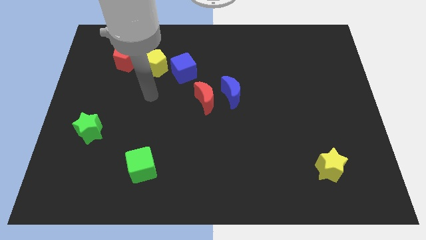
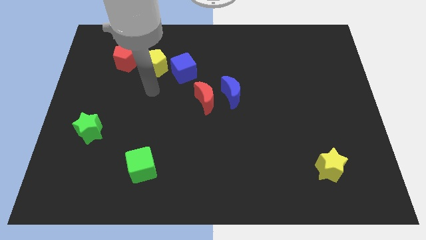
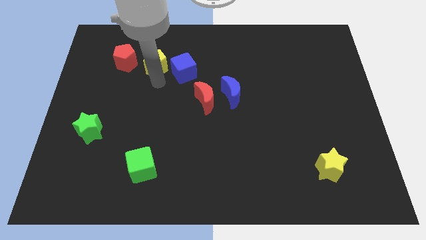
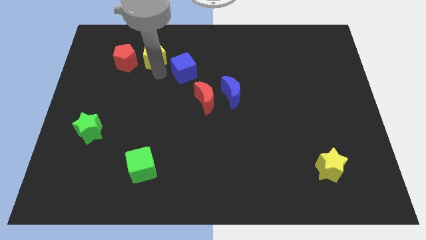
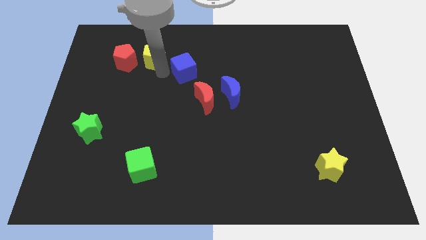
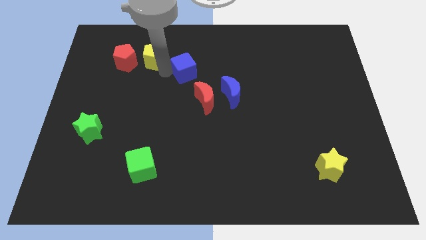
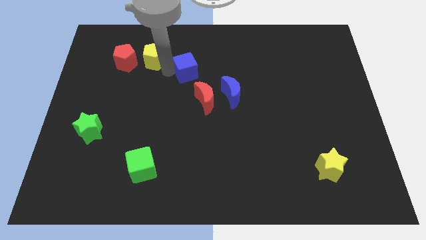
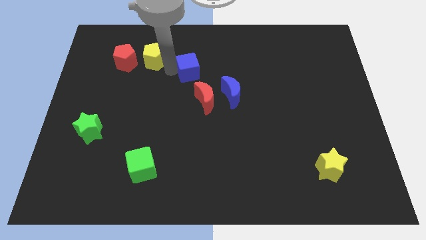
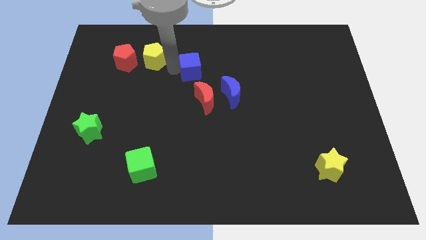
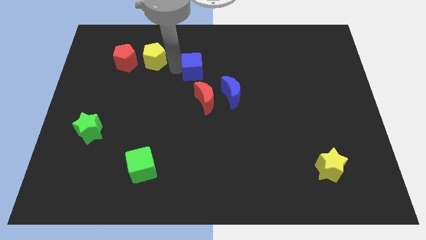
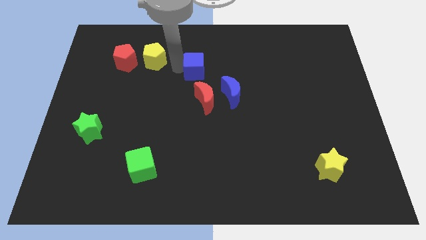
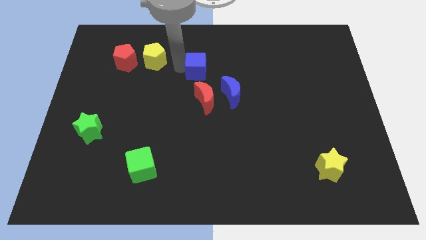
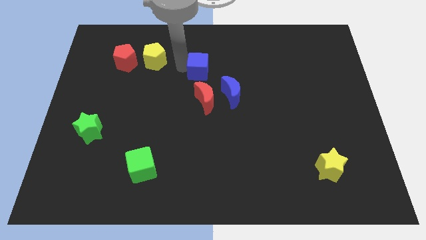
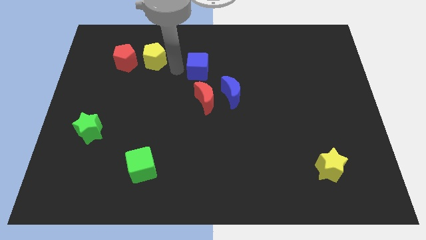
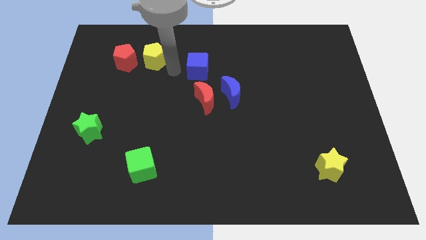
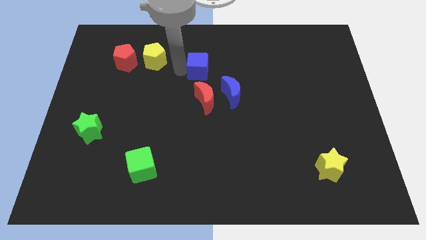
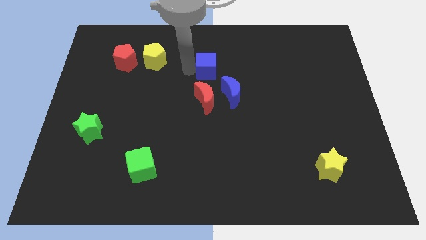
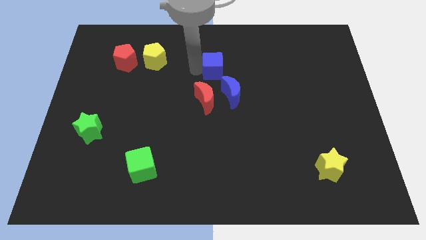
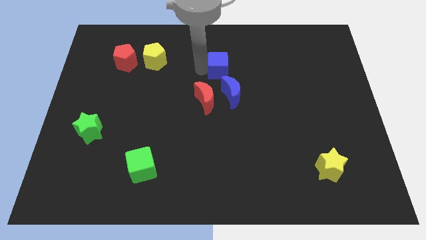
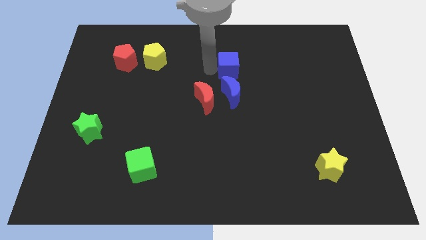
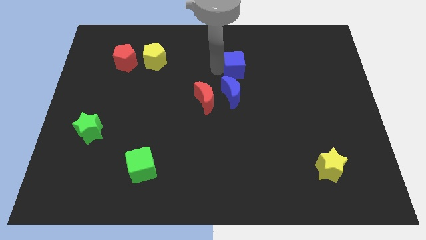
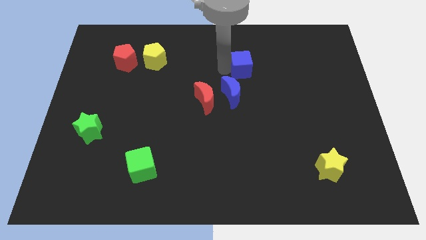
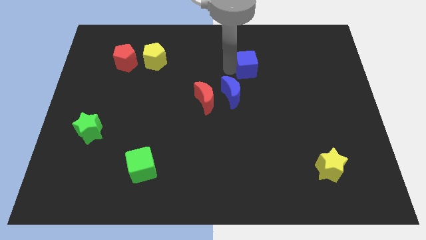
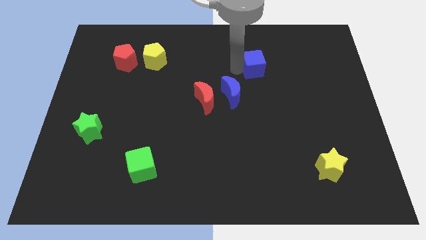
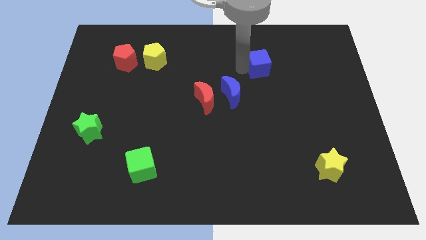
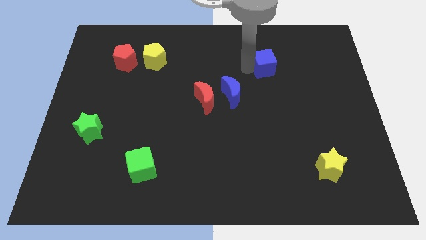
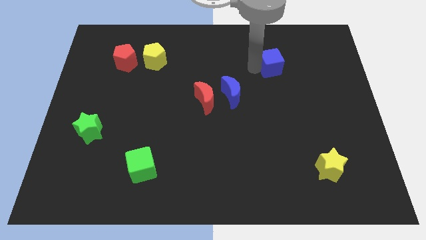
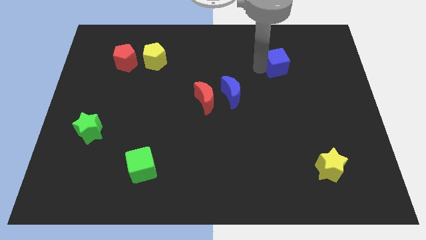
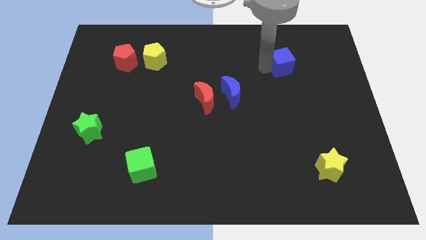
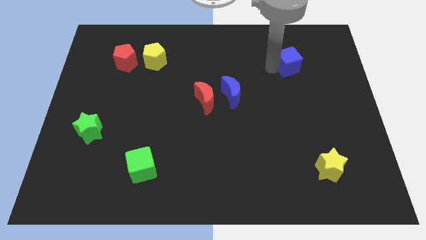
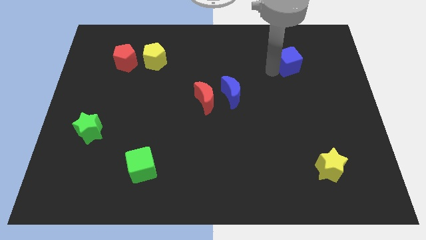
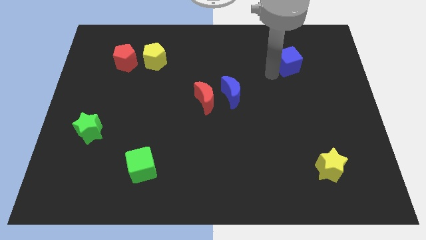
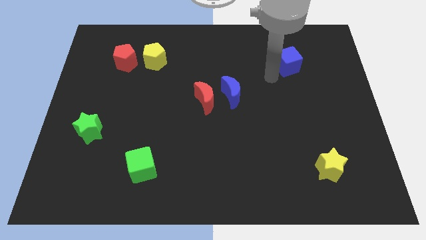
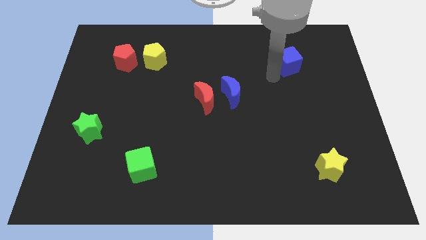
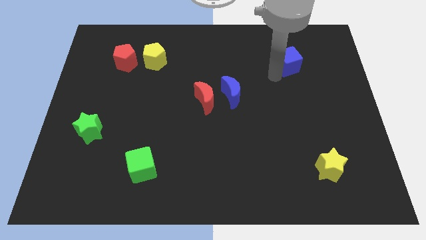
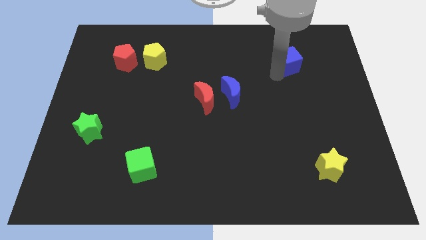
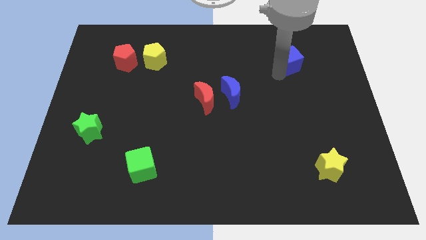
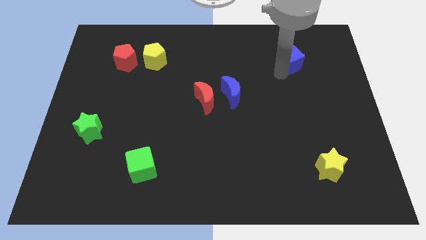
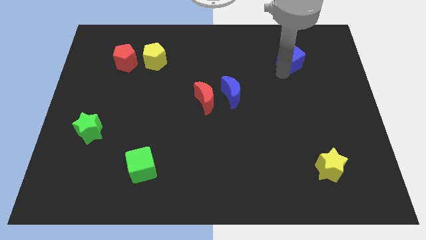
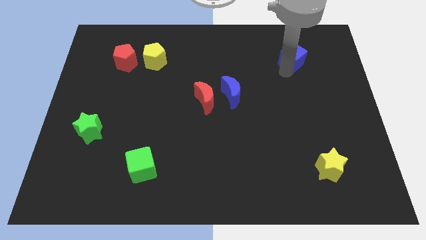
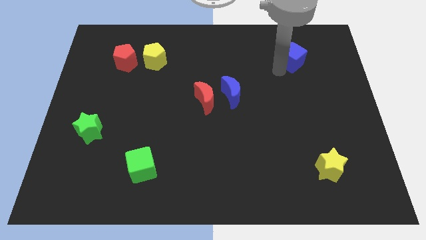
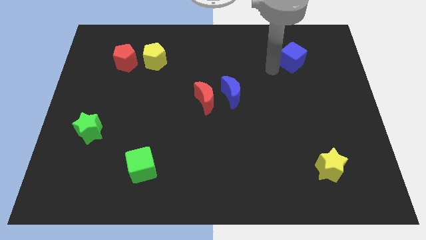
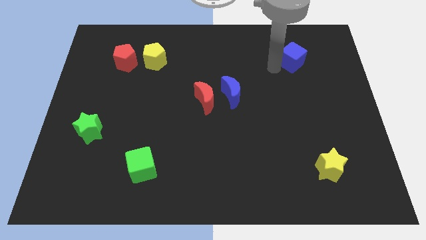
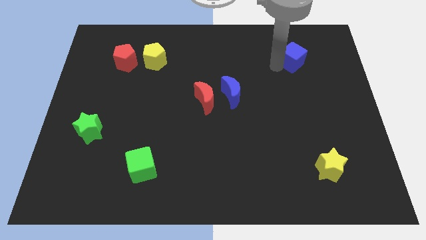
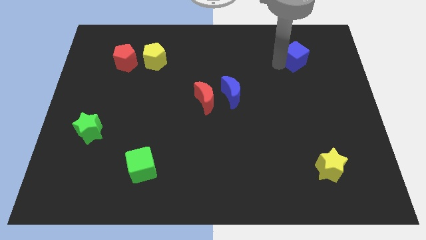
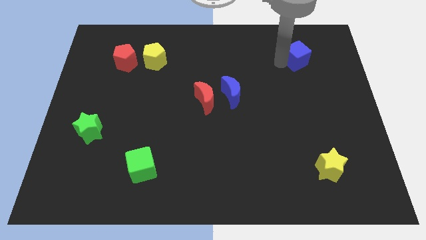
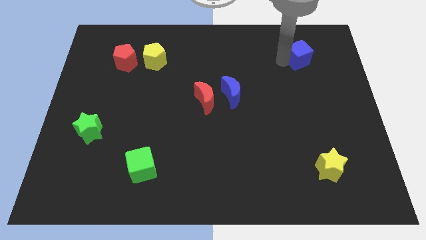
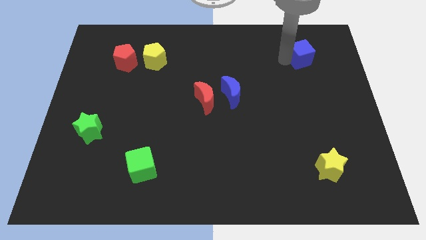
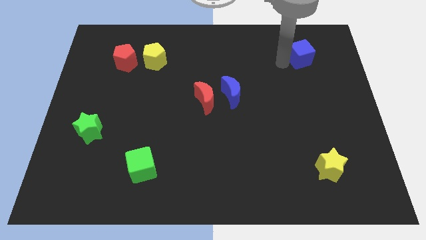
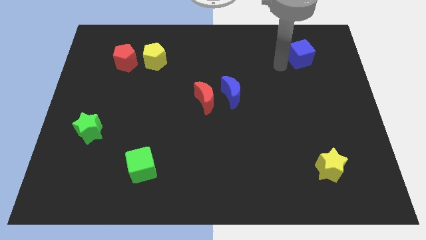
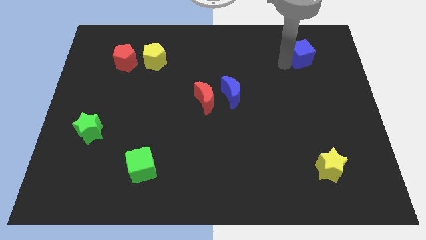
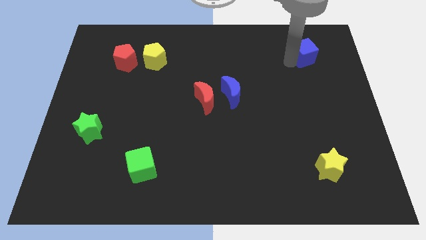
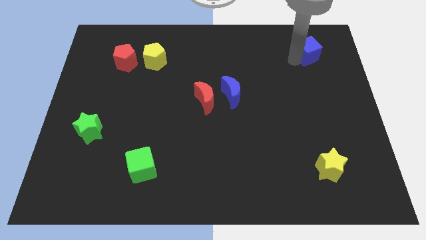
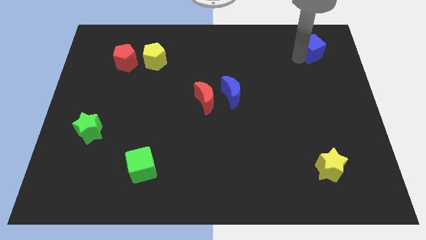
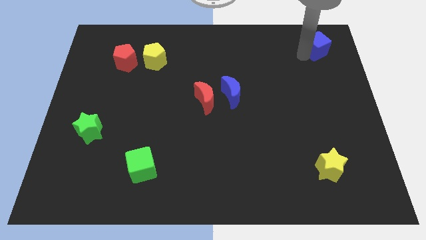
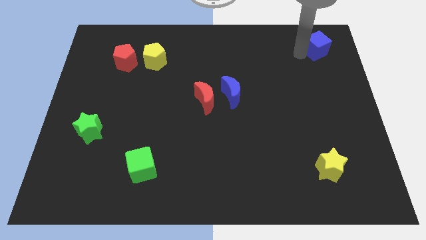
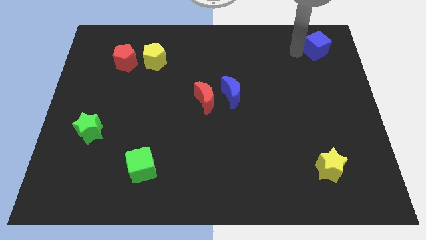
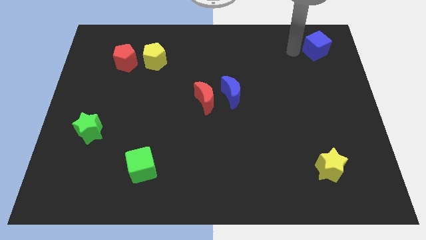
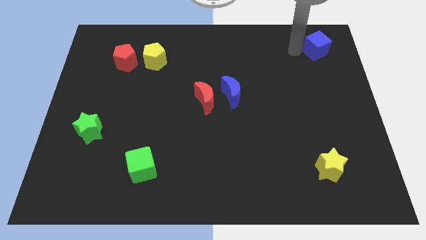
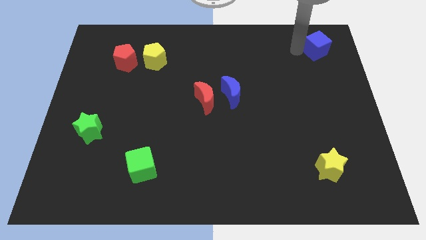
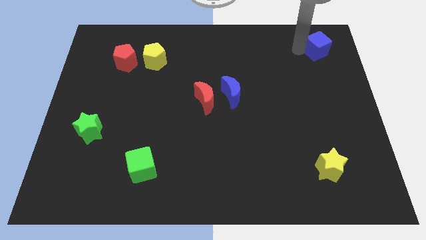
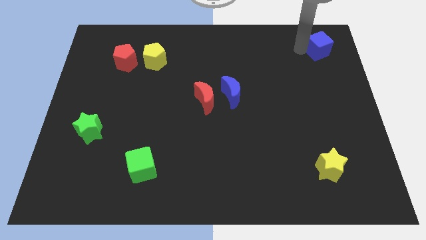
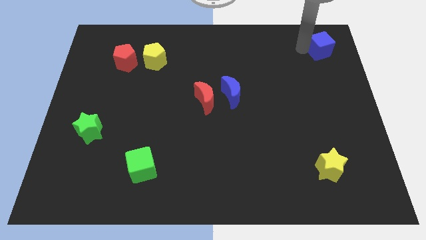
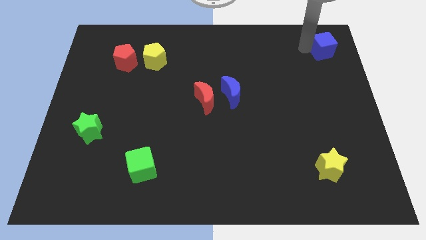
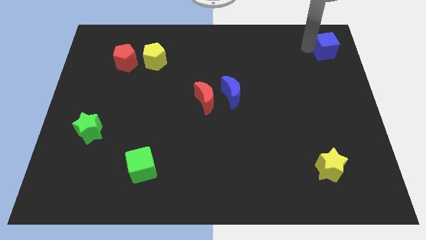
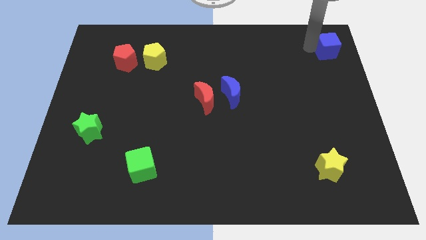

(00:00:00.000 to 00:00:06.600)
put the blue cube to the top right of the board

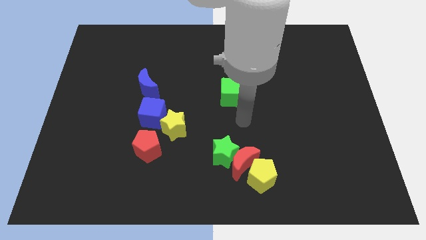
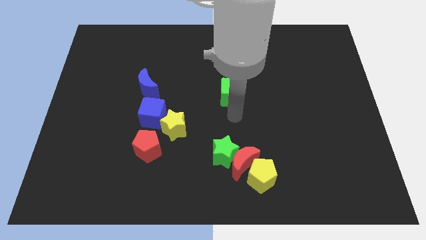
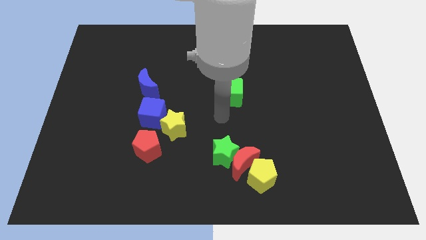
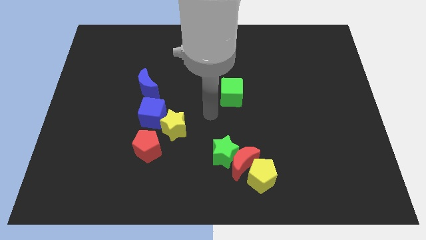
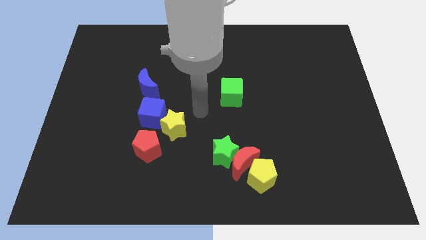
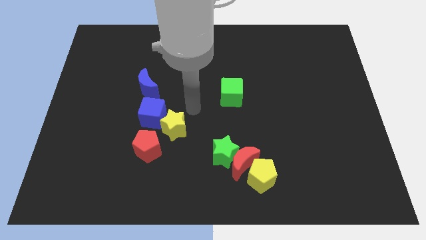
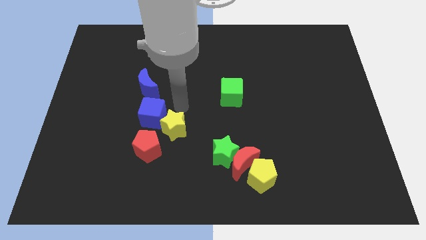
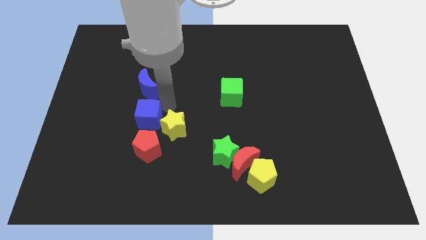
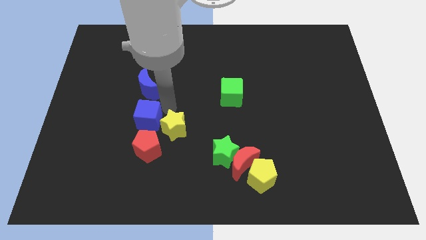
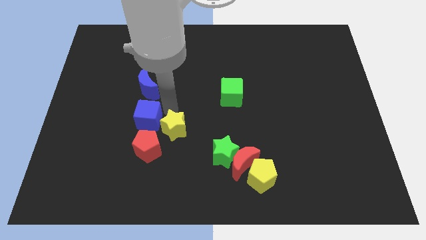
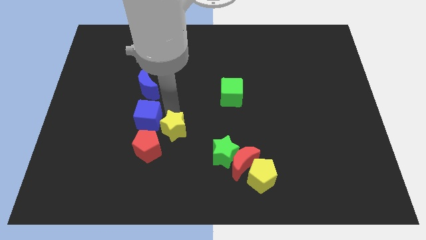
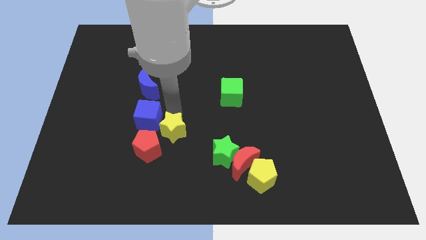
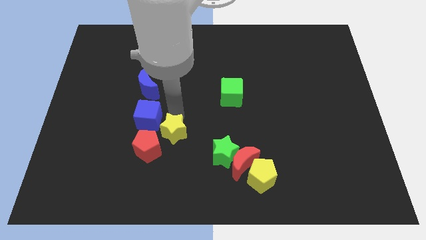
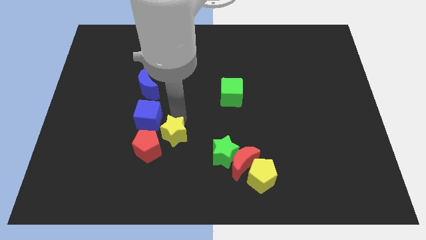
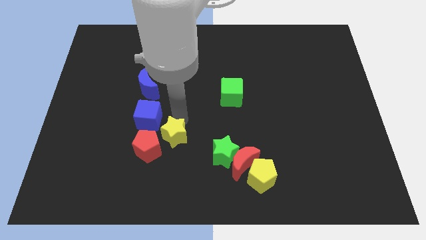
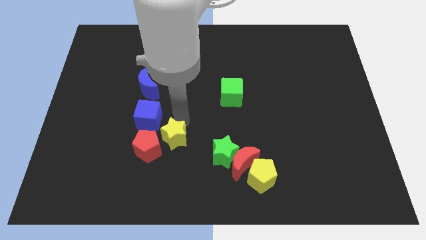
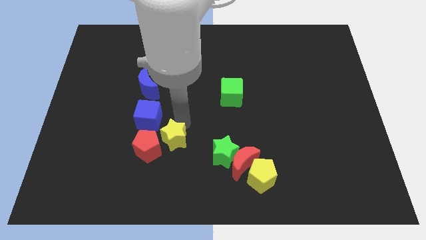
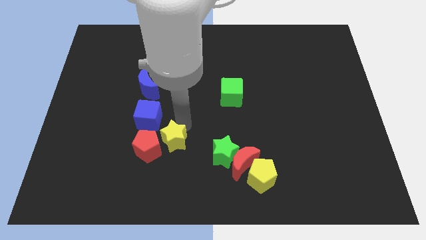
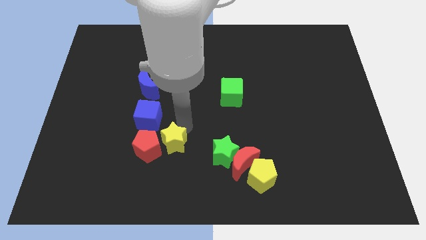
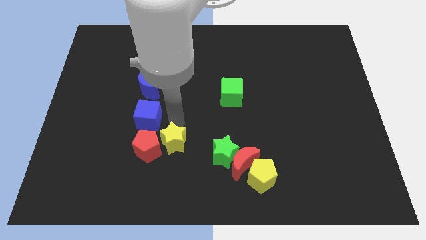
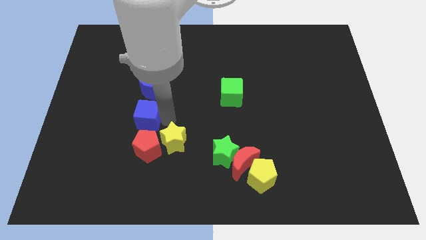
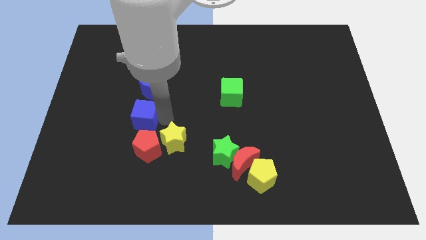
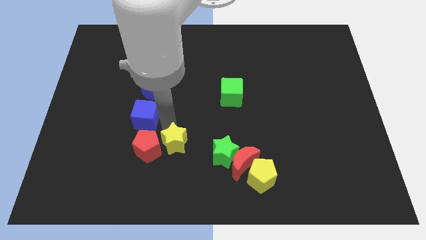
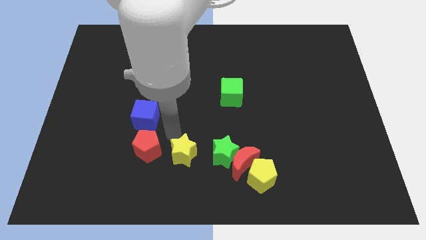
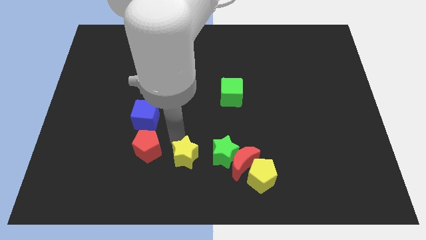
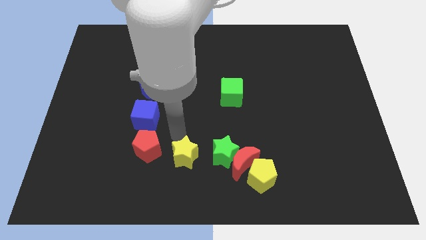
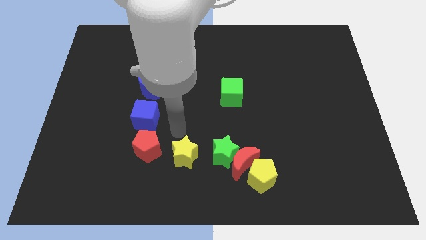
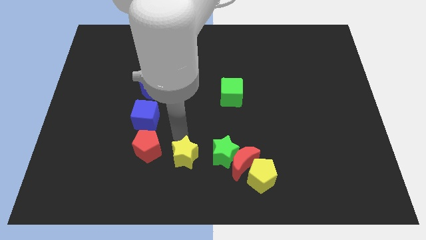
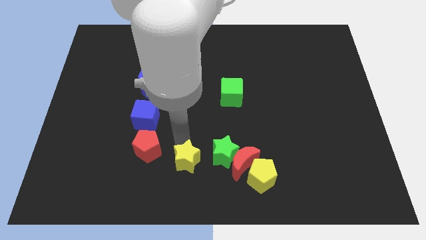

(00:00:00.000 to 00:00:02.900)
put the yellow star to the bottom
